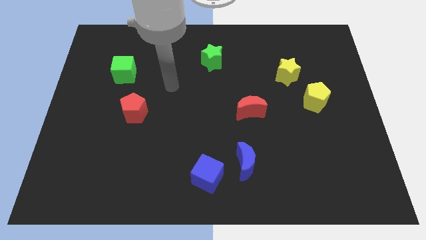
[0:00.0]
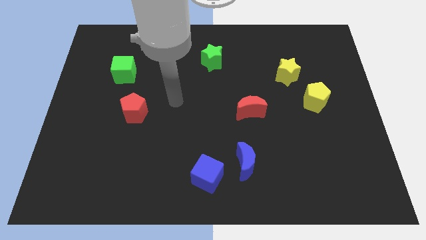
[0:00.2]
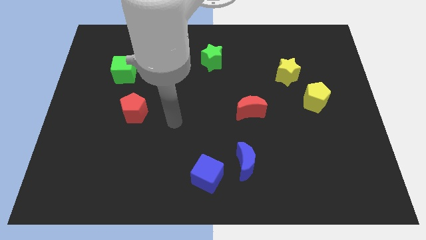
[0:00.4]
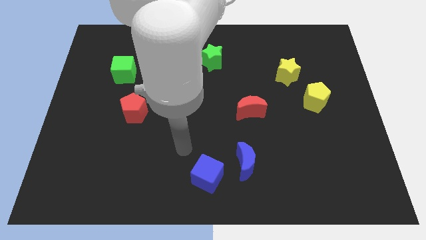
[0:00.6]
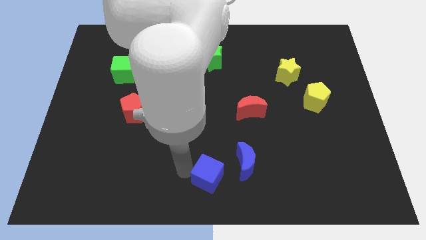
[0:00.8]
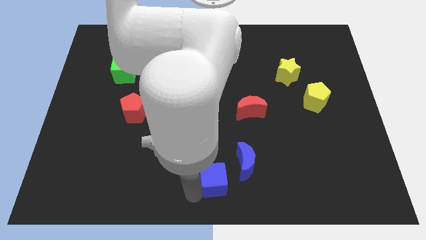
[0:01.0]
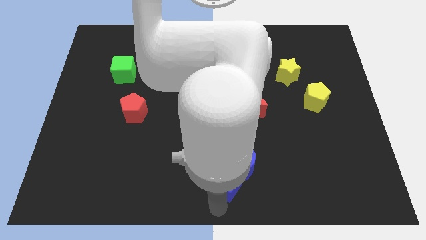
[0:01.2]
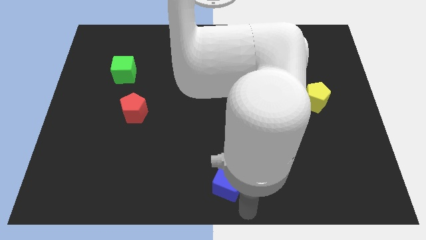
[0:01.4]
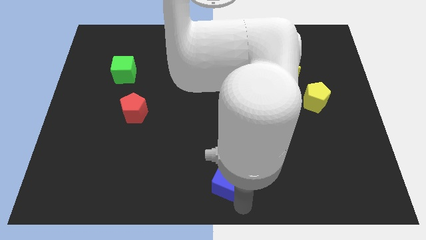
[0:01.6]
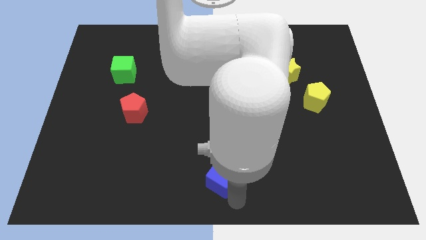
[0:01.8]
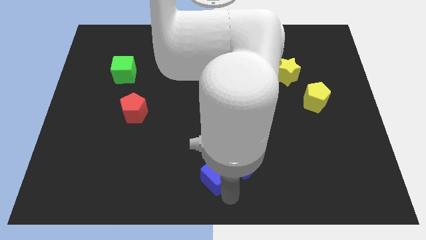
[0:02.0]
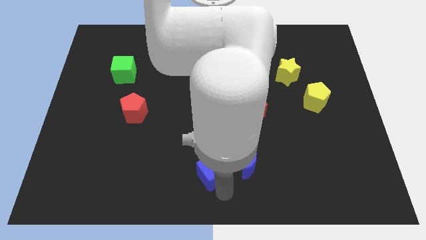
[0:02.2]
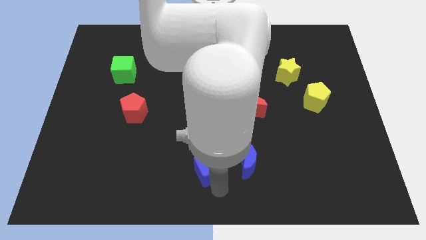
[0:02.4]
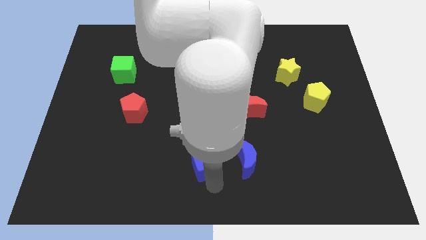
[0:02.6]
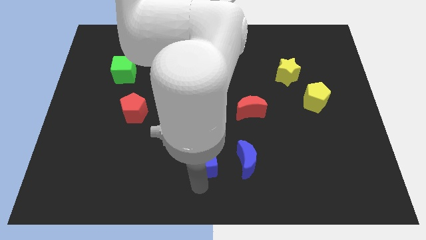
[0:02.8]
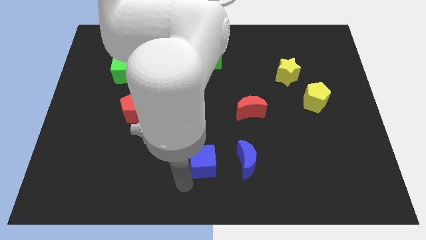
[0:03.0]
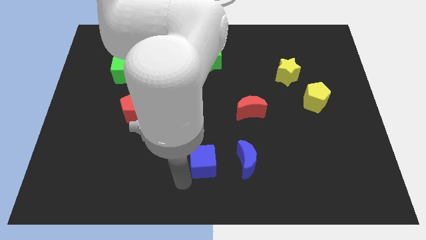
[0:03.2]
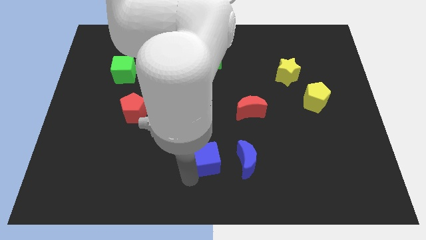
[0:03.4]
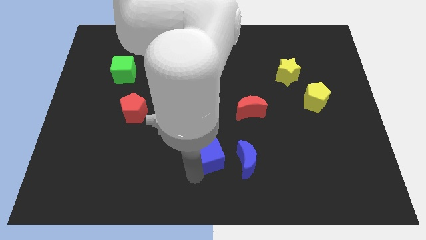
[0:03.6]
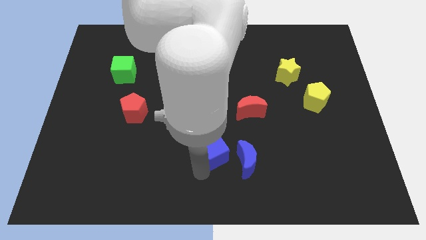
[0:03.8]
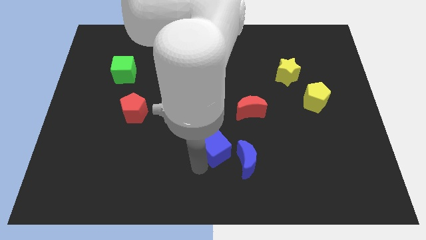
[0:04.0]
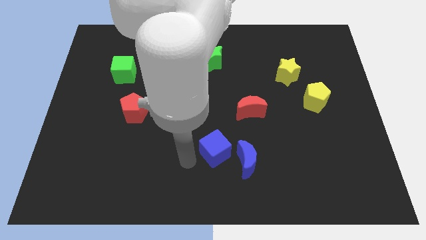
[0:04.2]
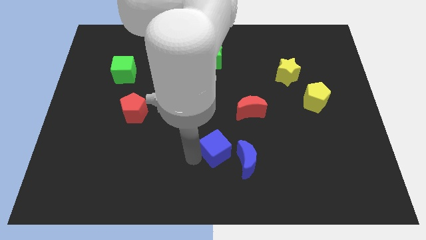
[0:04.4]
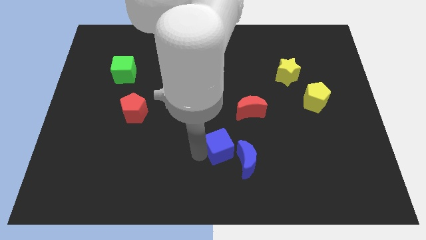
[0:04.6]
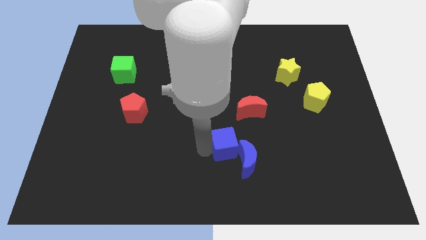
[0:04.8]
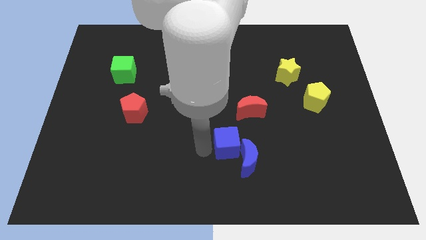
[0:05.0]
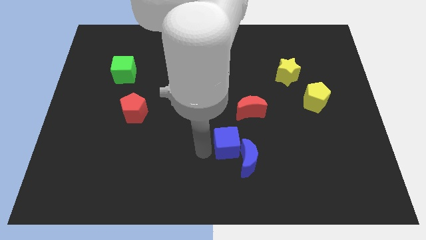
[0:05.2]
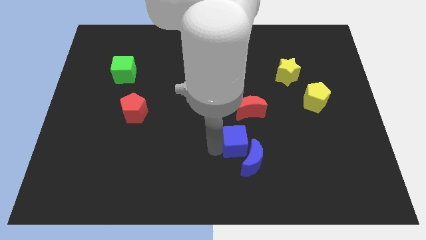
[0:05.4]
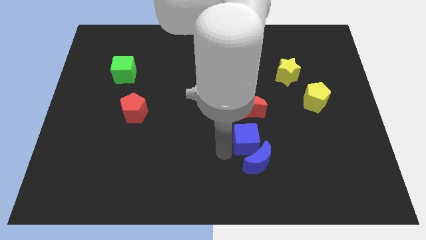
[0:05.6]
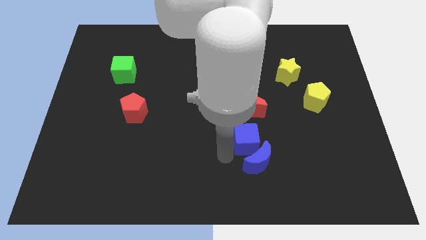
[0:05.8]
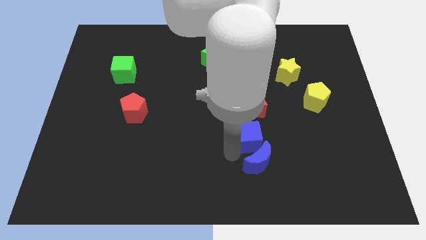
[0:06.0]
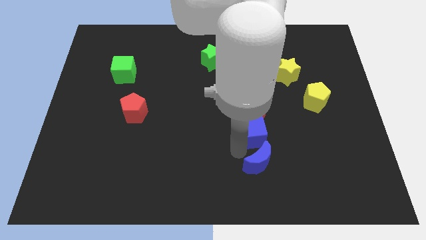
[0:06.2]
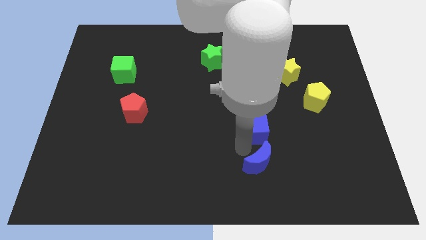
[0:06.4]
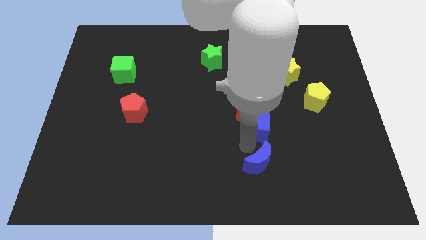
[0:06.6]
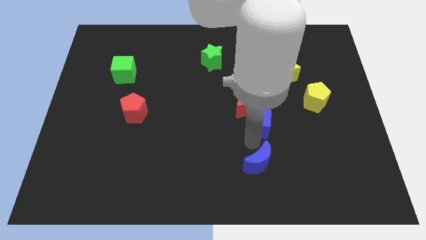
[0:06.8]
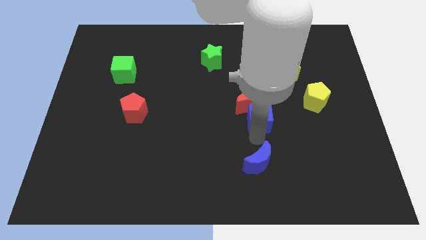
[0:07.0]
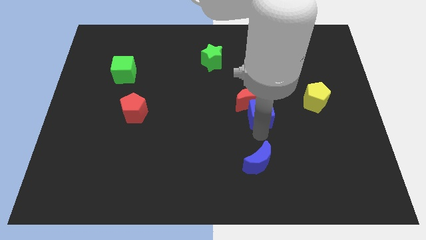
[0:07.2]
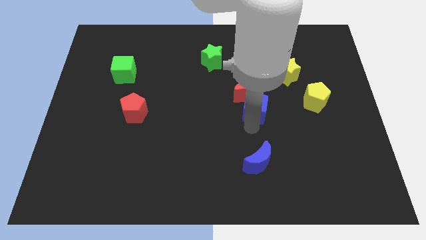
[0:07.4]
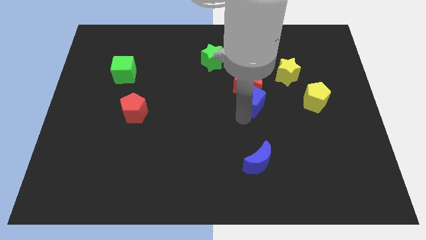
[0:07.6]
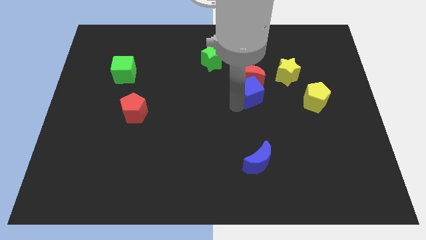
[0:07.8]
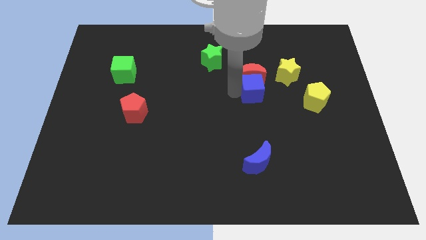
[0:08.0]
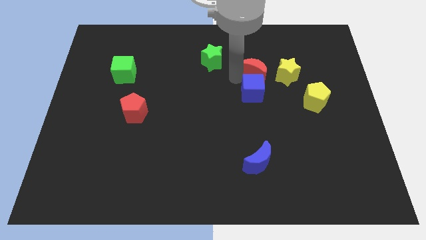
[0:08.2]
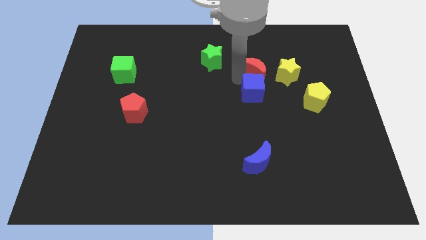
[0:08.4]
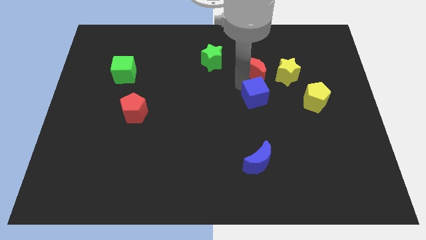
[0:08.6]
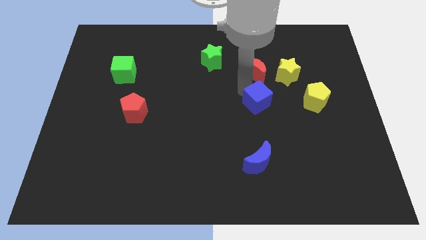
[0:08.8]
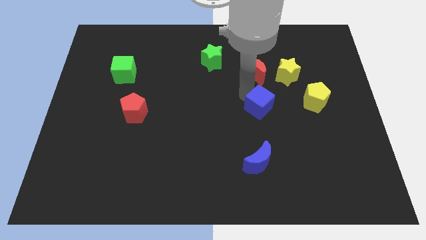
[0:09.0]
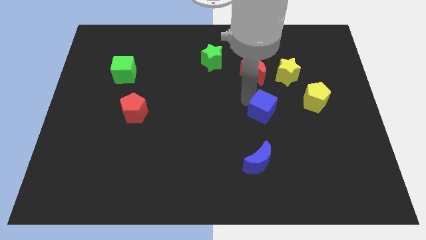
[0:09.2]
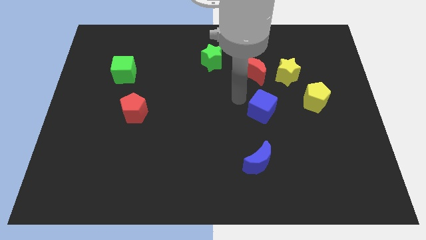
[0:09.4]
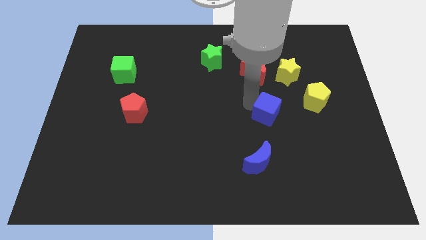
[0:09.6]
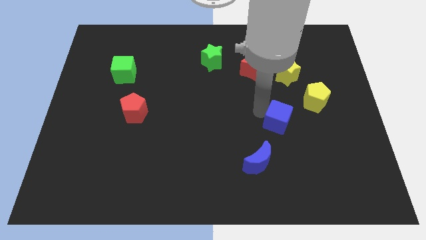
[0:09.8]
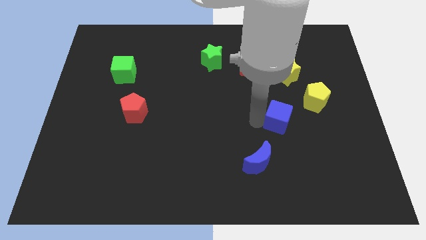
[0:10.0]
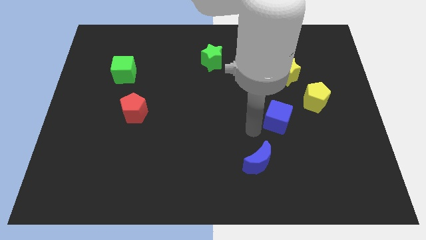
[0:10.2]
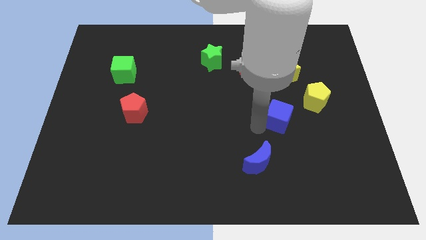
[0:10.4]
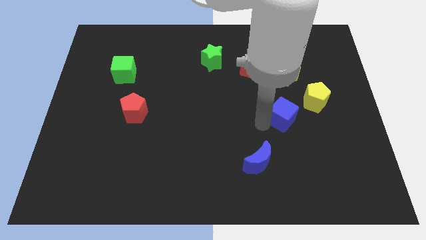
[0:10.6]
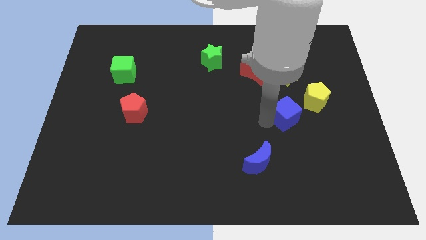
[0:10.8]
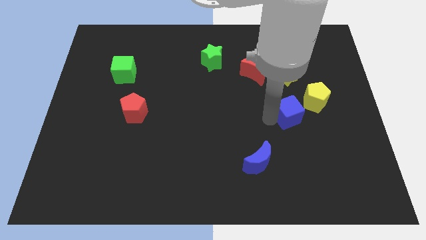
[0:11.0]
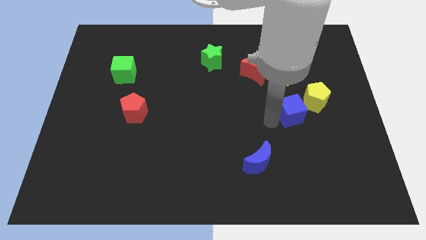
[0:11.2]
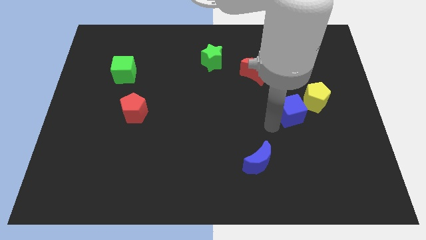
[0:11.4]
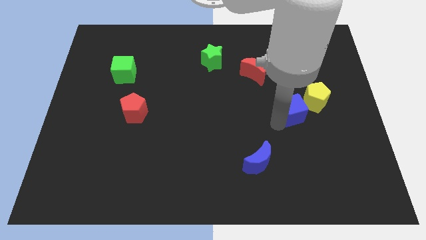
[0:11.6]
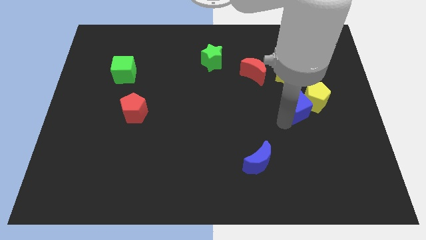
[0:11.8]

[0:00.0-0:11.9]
move the blue cube towards the yellow pentagon
